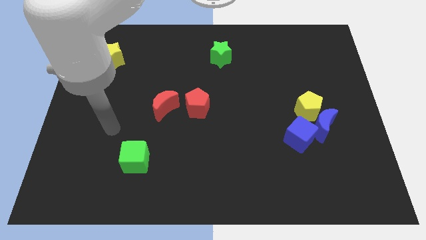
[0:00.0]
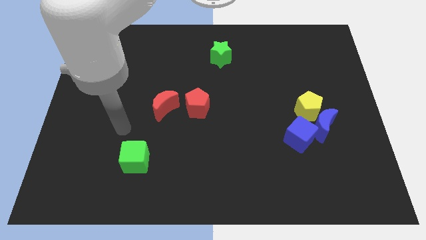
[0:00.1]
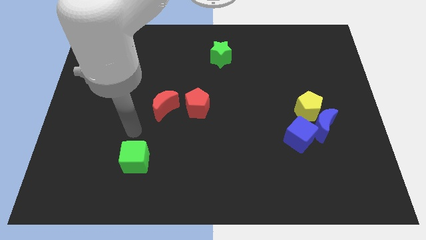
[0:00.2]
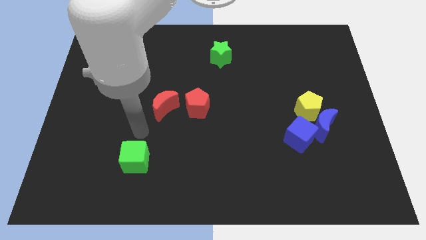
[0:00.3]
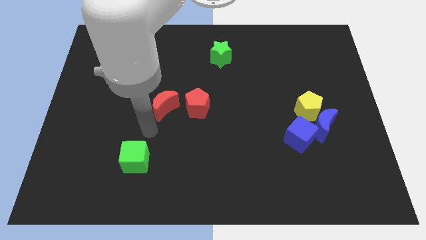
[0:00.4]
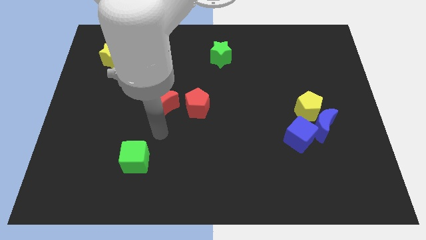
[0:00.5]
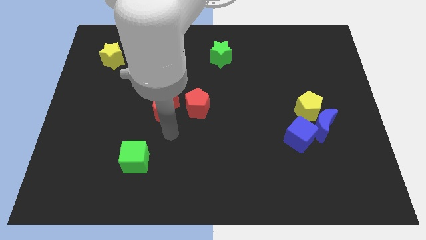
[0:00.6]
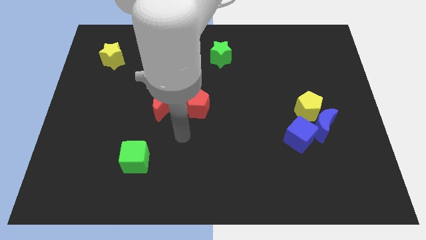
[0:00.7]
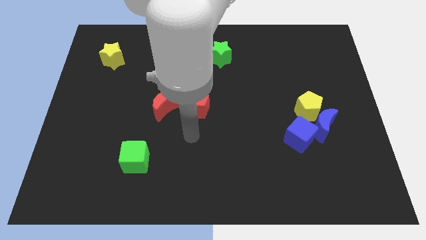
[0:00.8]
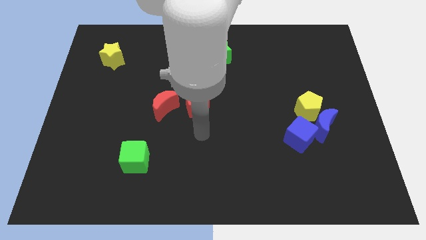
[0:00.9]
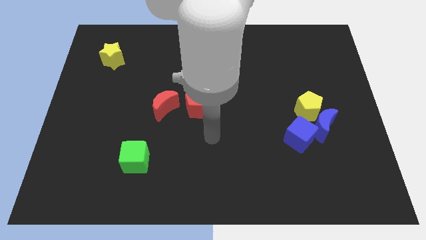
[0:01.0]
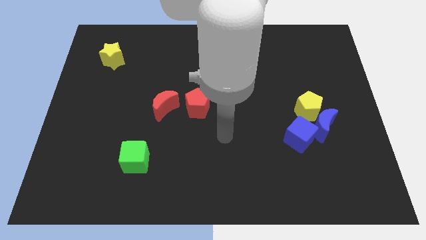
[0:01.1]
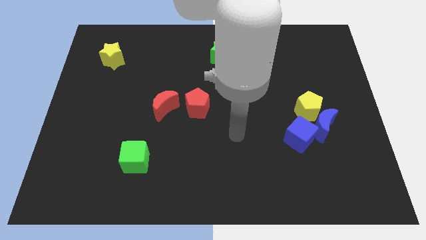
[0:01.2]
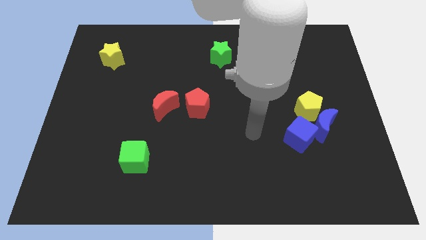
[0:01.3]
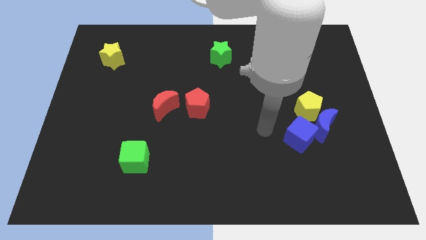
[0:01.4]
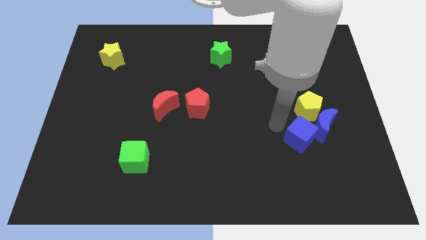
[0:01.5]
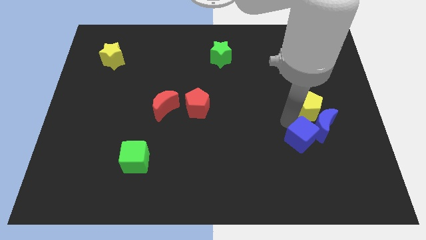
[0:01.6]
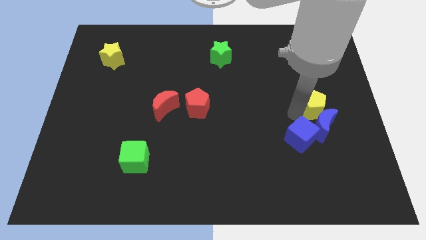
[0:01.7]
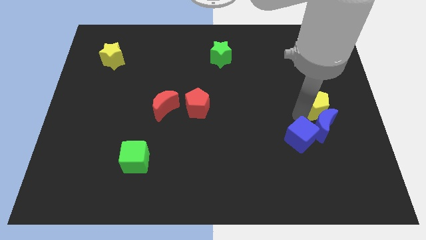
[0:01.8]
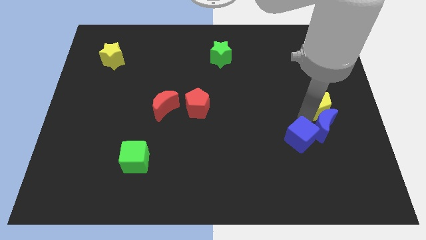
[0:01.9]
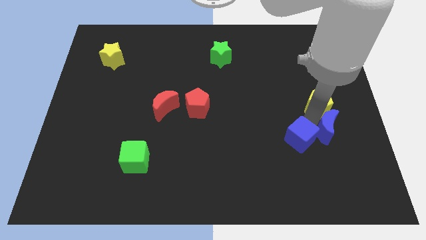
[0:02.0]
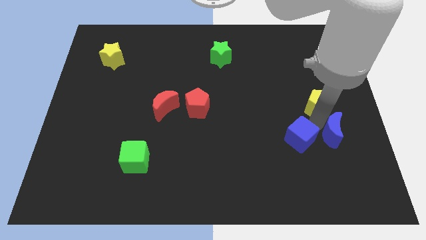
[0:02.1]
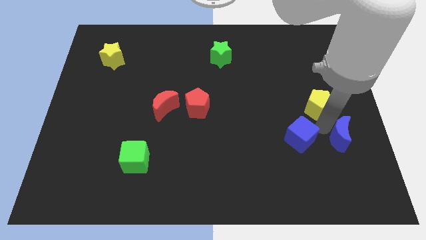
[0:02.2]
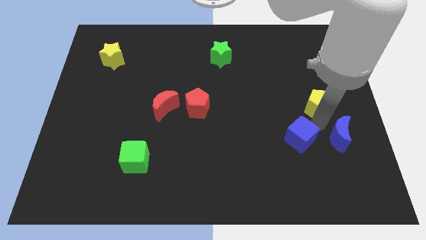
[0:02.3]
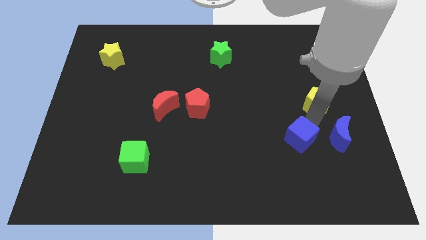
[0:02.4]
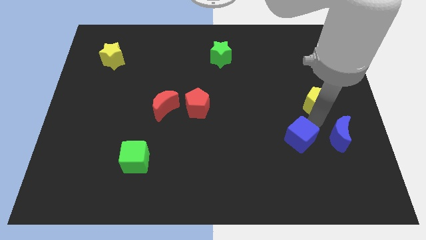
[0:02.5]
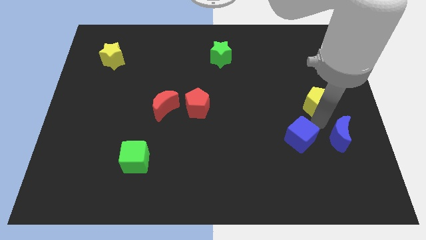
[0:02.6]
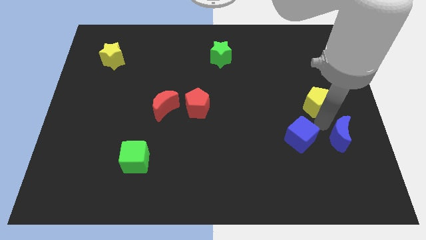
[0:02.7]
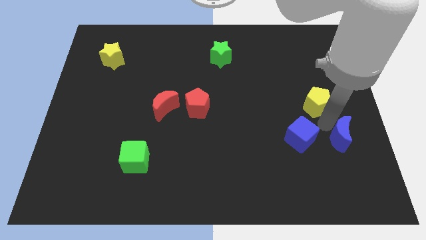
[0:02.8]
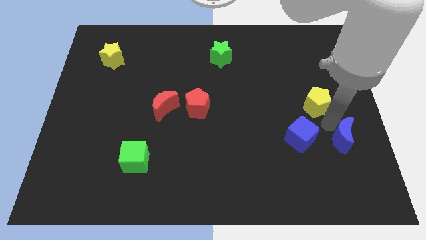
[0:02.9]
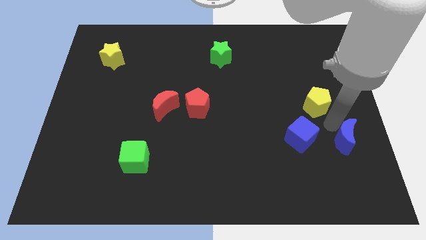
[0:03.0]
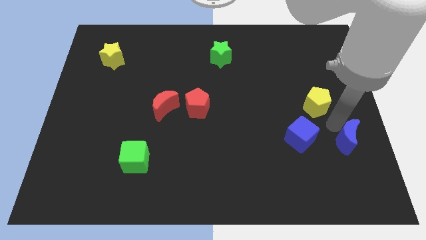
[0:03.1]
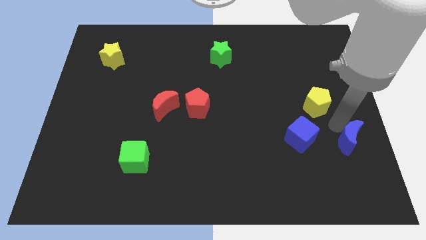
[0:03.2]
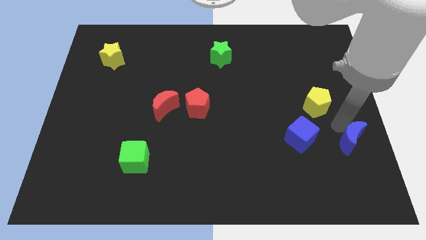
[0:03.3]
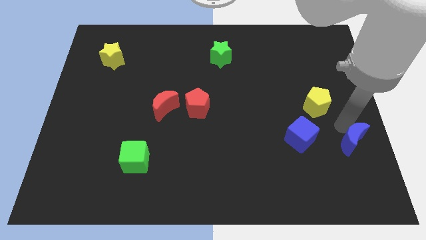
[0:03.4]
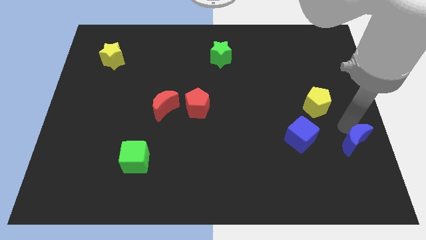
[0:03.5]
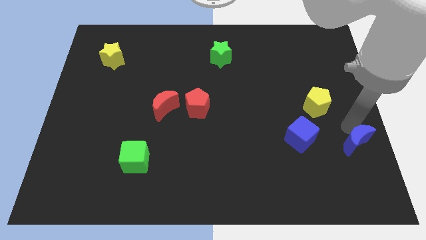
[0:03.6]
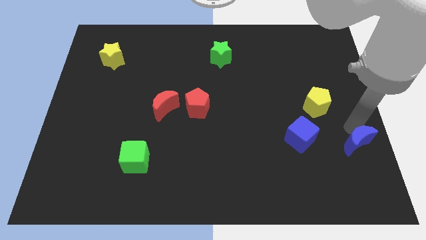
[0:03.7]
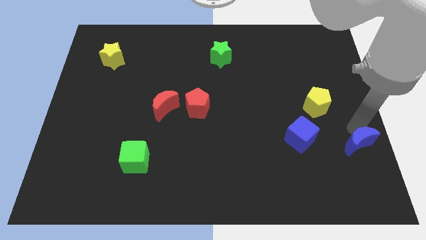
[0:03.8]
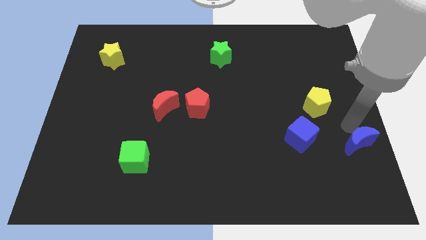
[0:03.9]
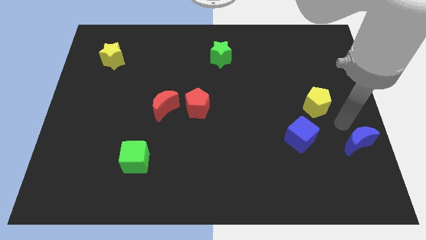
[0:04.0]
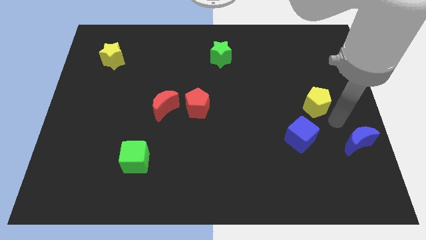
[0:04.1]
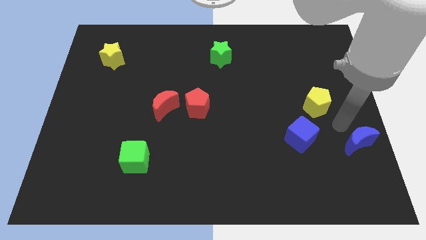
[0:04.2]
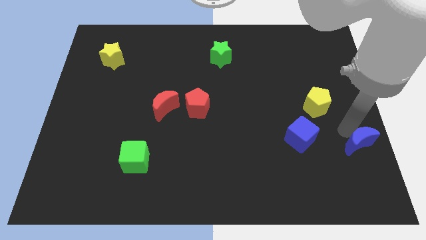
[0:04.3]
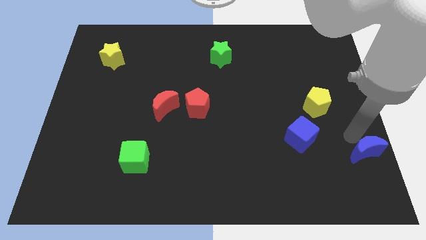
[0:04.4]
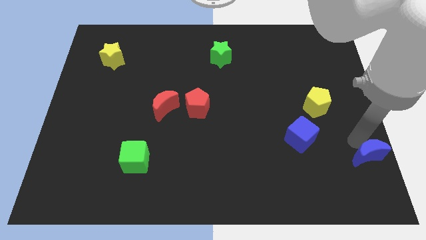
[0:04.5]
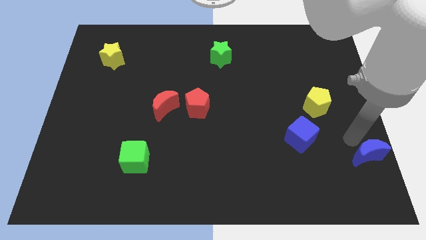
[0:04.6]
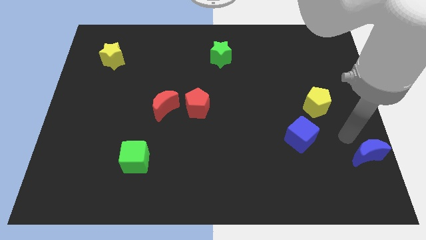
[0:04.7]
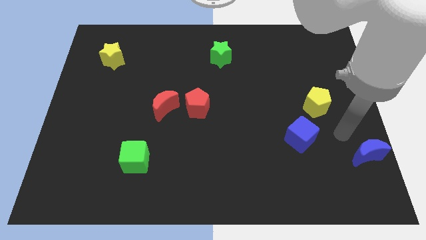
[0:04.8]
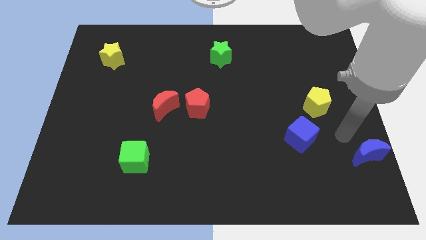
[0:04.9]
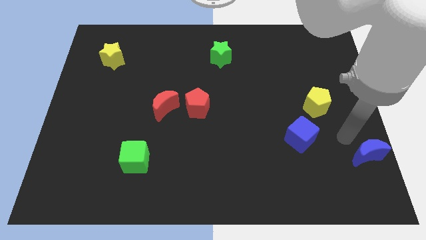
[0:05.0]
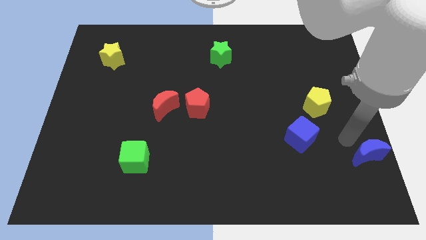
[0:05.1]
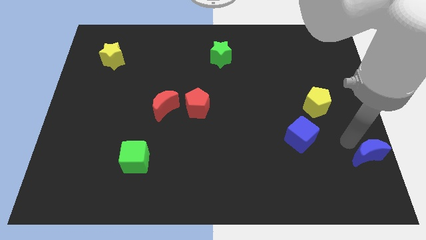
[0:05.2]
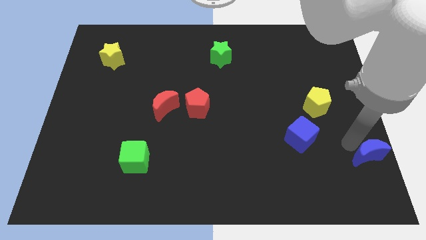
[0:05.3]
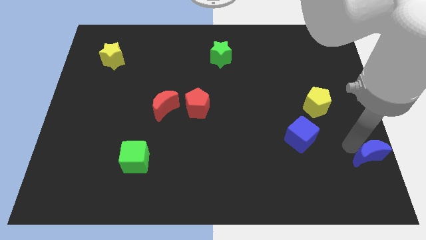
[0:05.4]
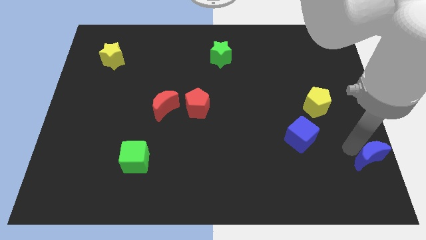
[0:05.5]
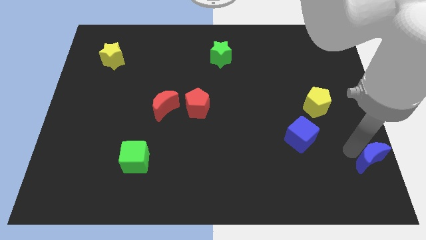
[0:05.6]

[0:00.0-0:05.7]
put the blue moon to the bottom right

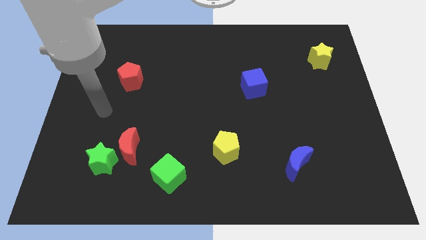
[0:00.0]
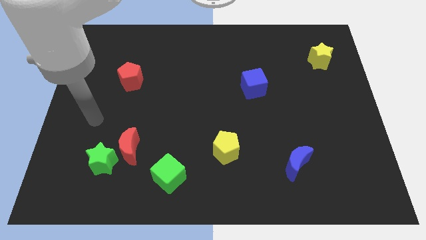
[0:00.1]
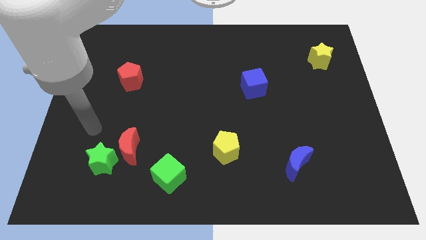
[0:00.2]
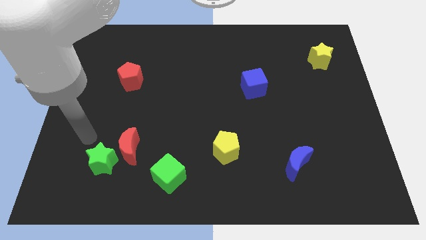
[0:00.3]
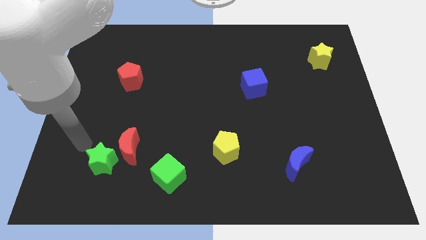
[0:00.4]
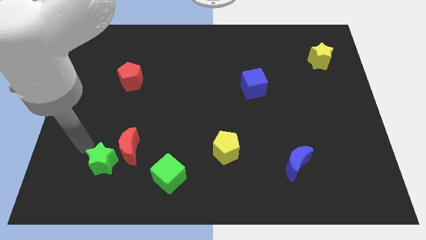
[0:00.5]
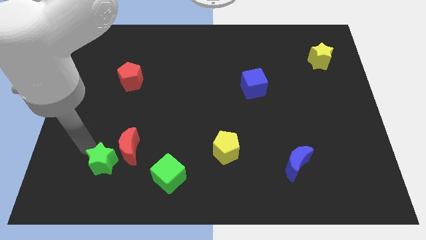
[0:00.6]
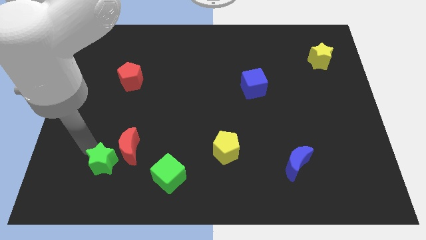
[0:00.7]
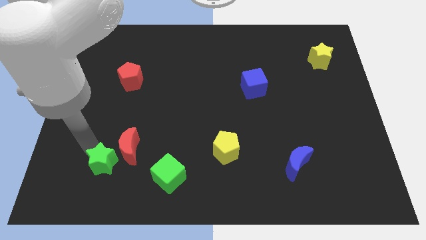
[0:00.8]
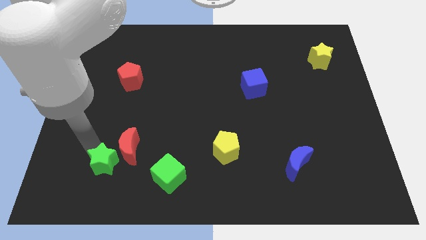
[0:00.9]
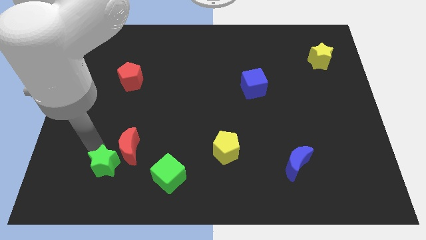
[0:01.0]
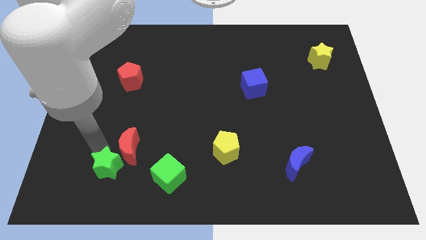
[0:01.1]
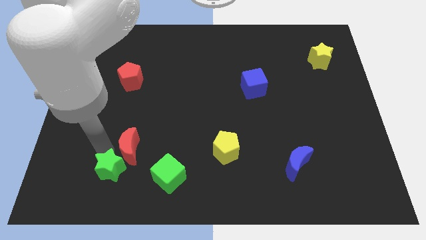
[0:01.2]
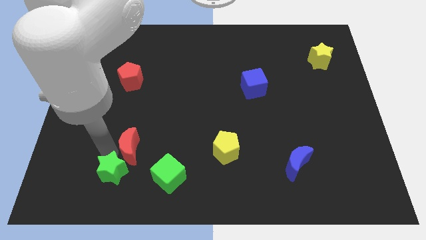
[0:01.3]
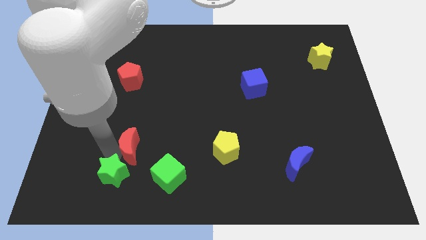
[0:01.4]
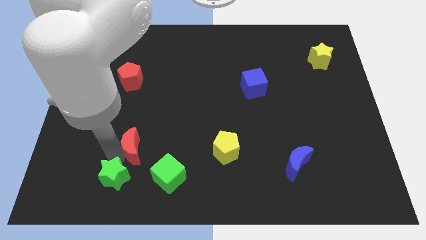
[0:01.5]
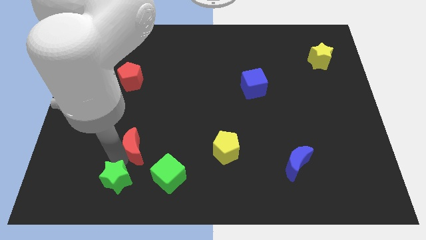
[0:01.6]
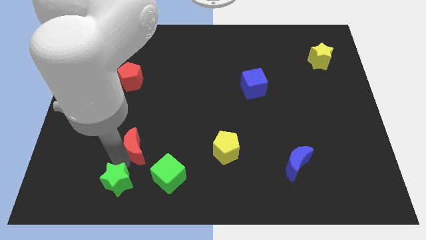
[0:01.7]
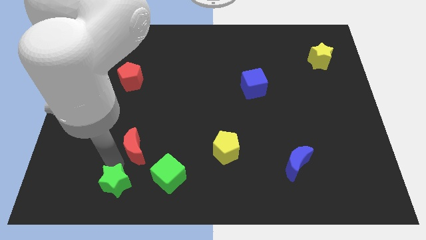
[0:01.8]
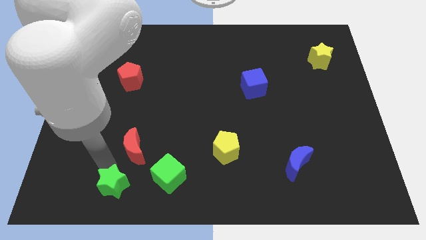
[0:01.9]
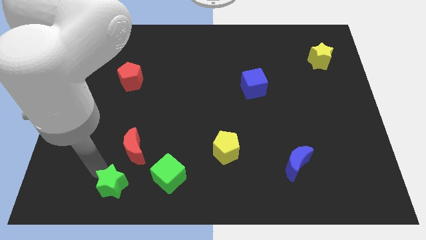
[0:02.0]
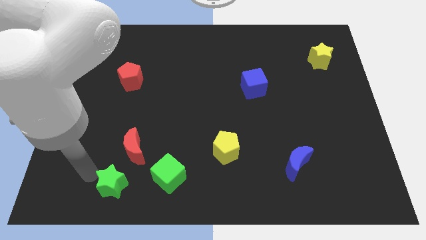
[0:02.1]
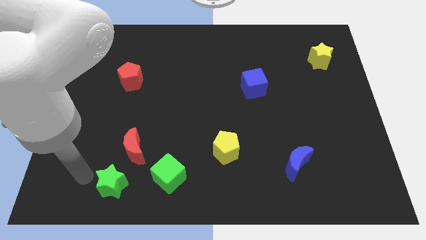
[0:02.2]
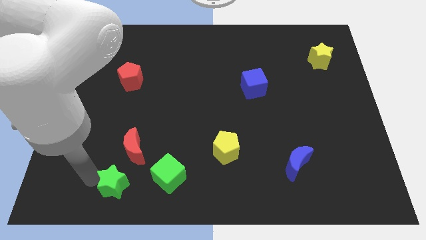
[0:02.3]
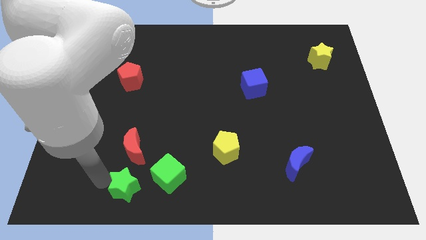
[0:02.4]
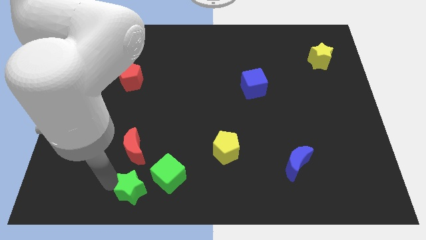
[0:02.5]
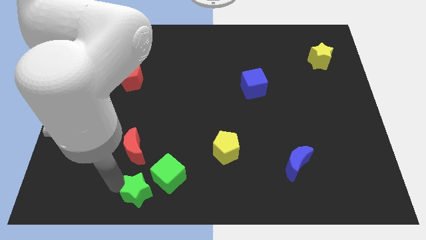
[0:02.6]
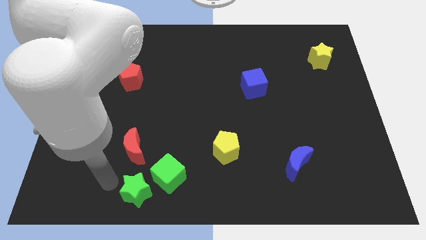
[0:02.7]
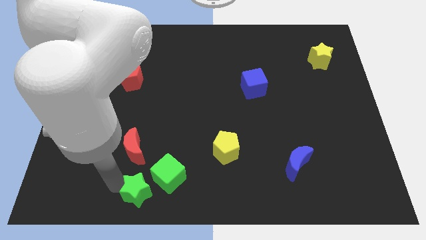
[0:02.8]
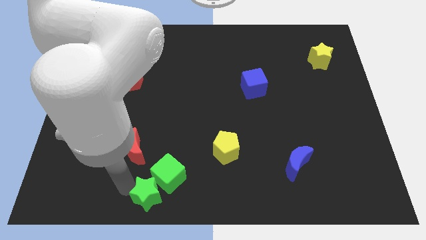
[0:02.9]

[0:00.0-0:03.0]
slide the green star to the bottom
